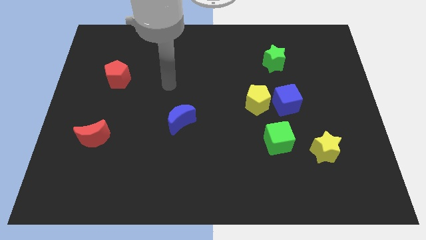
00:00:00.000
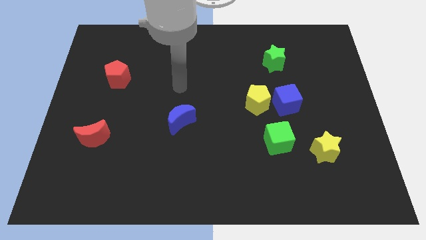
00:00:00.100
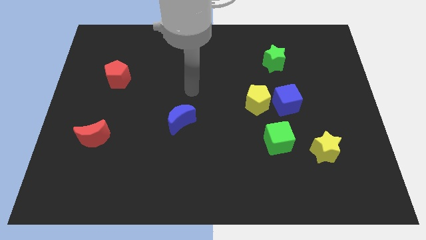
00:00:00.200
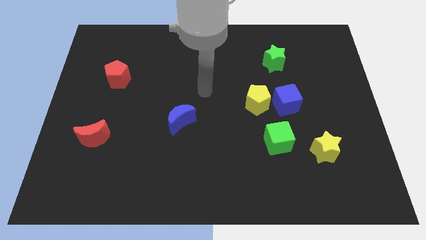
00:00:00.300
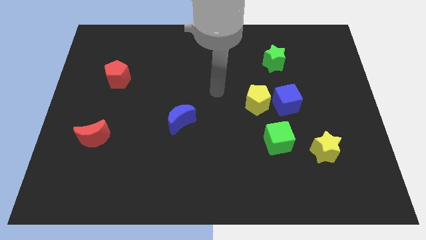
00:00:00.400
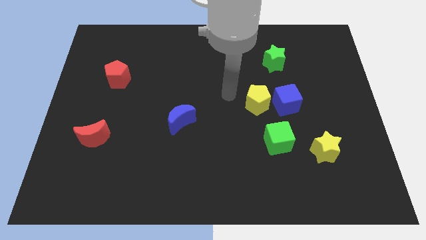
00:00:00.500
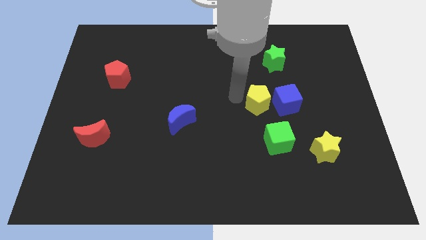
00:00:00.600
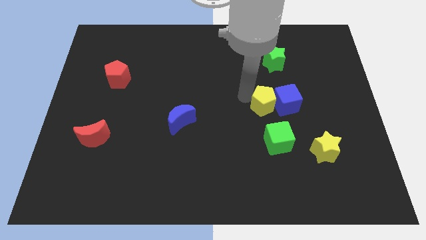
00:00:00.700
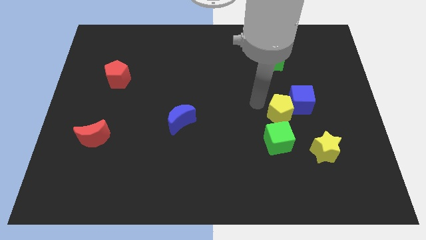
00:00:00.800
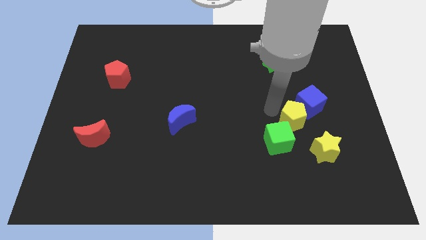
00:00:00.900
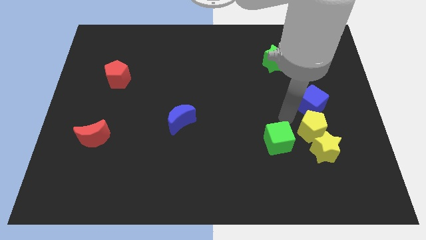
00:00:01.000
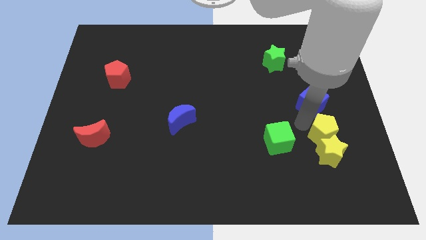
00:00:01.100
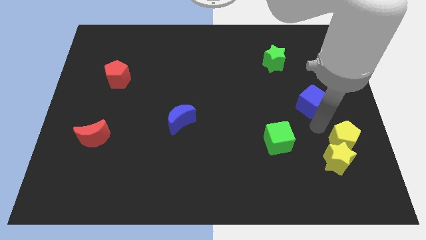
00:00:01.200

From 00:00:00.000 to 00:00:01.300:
separate the blue cube from the yellow pentagon

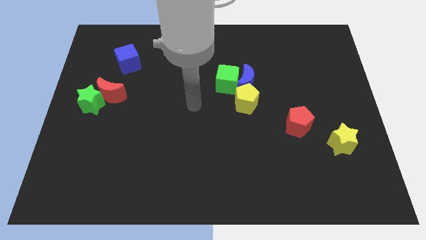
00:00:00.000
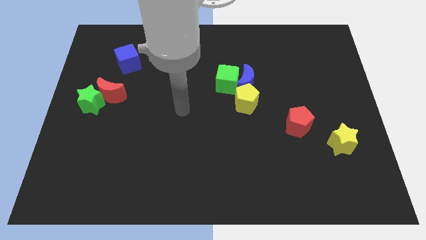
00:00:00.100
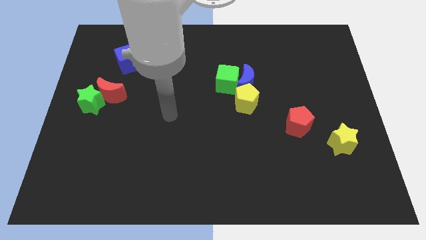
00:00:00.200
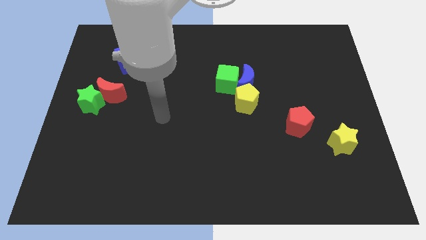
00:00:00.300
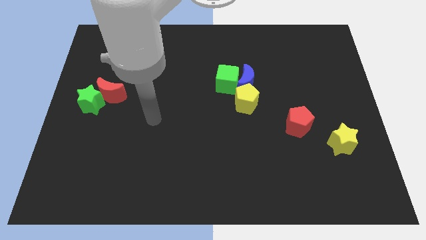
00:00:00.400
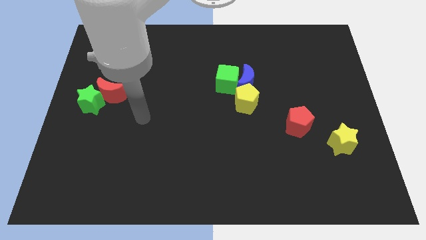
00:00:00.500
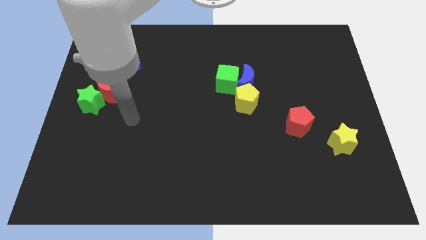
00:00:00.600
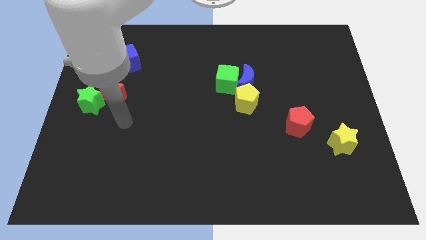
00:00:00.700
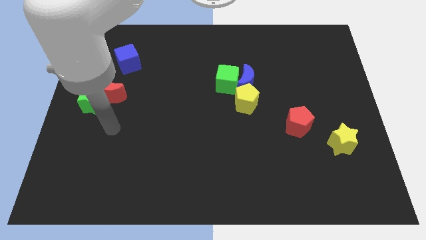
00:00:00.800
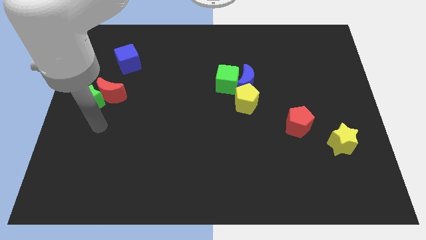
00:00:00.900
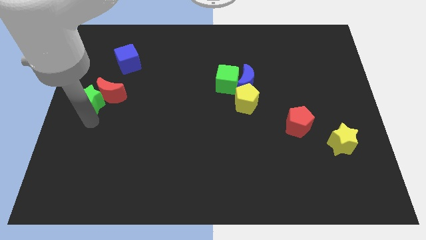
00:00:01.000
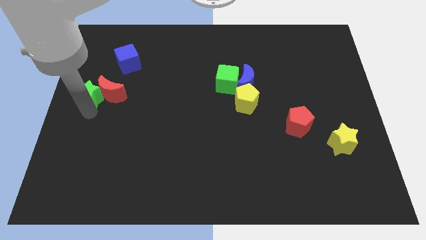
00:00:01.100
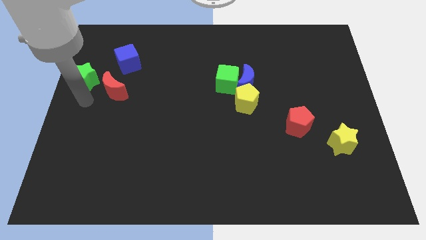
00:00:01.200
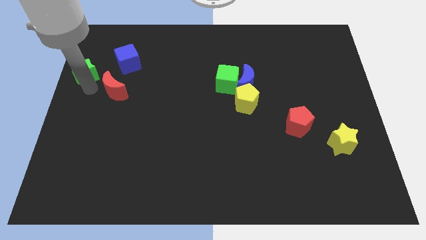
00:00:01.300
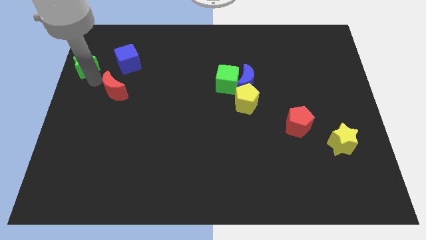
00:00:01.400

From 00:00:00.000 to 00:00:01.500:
separate the red moon from the green star

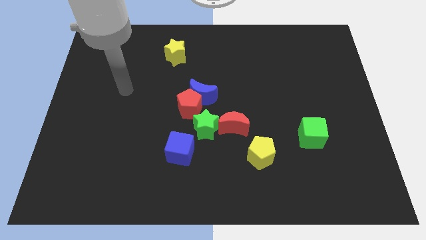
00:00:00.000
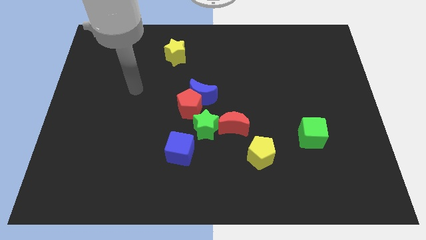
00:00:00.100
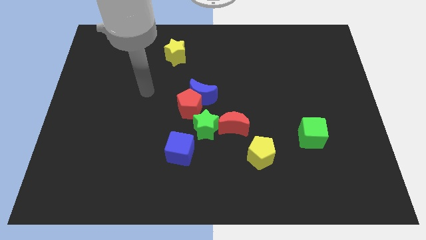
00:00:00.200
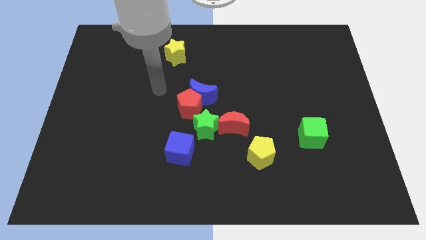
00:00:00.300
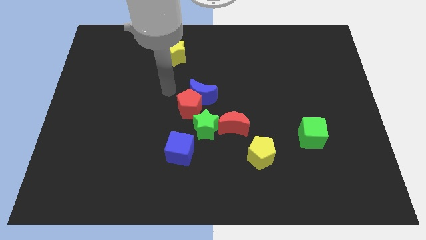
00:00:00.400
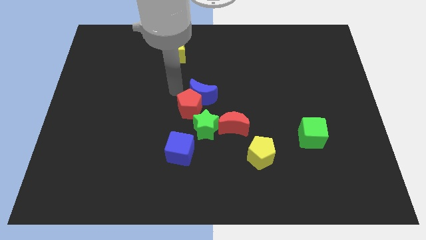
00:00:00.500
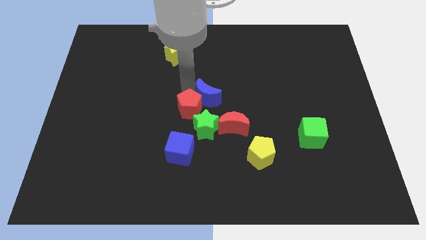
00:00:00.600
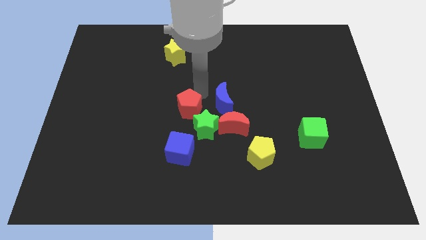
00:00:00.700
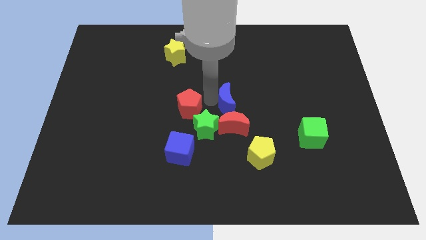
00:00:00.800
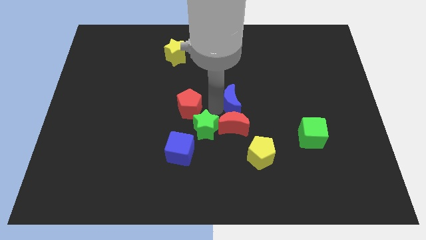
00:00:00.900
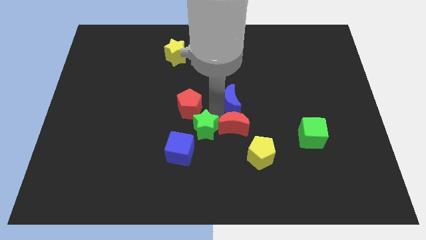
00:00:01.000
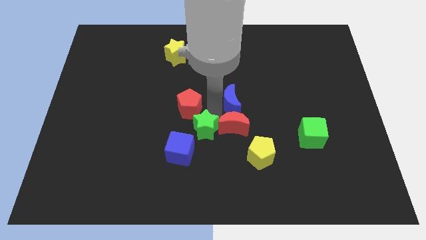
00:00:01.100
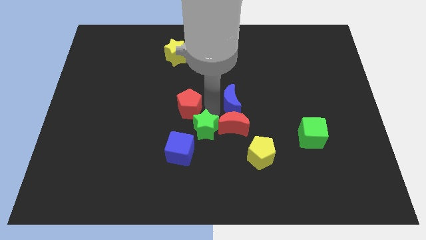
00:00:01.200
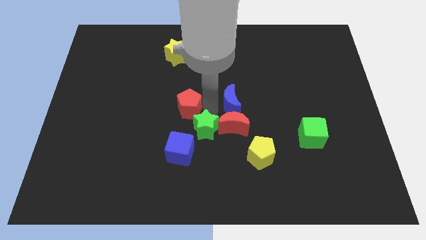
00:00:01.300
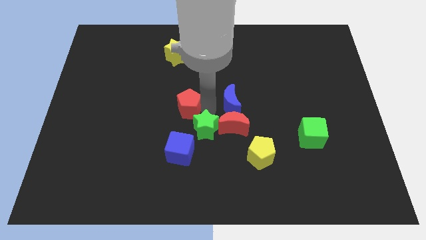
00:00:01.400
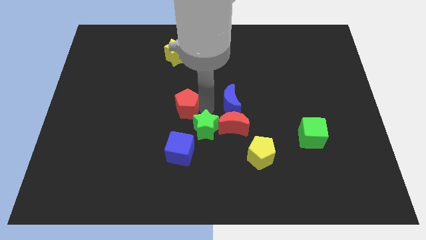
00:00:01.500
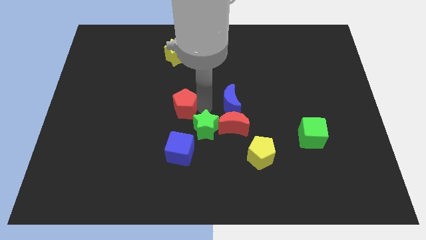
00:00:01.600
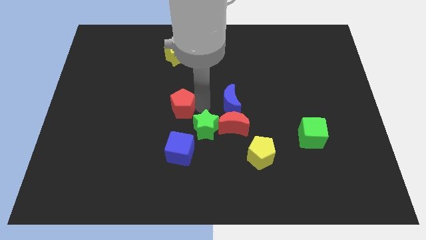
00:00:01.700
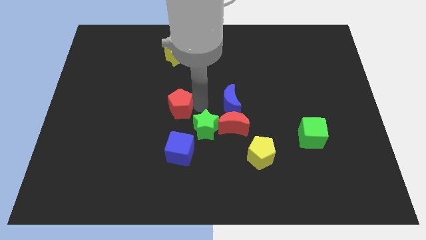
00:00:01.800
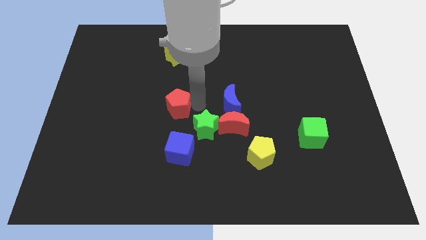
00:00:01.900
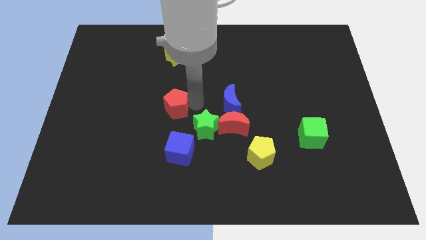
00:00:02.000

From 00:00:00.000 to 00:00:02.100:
separate the red pentagon from the blue moon and green star

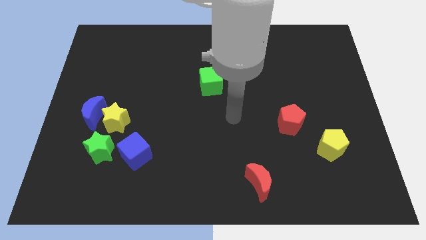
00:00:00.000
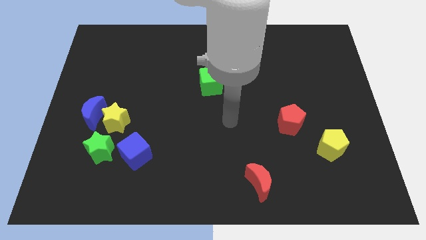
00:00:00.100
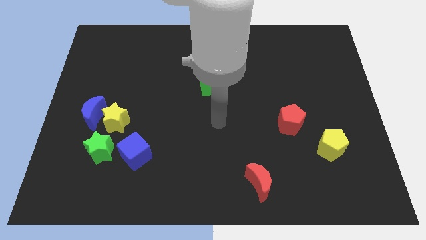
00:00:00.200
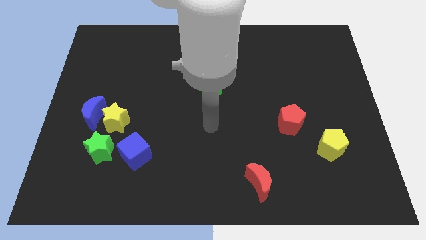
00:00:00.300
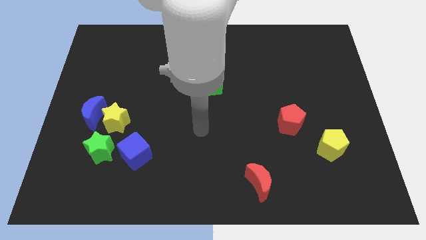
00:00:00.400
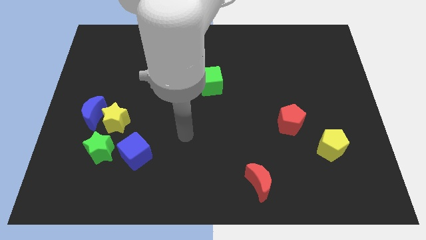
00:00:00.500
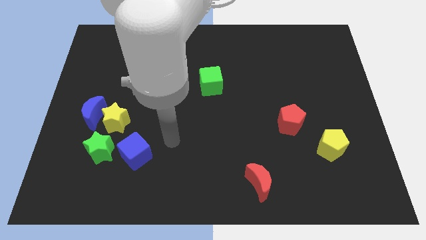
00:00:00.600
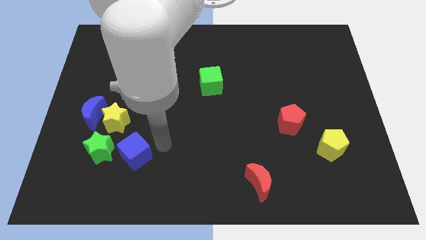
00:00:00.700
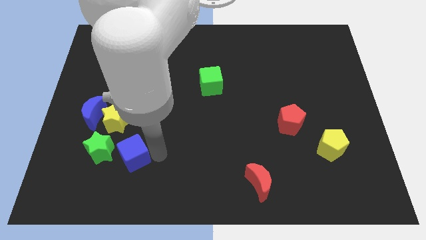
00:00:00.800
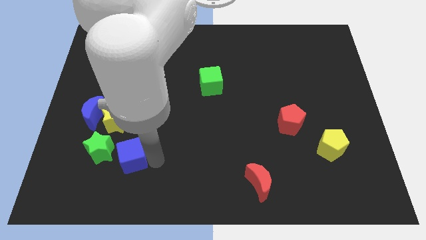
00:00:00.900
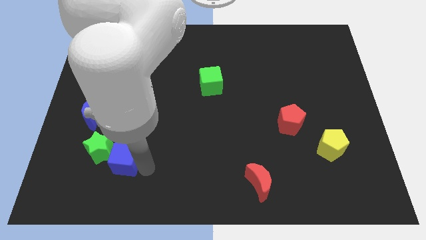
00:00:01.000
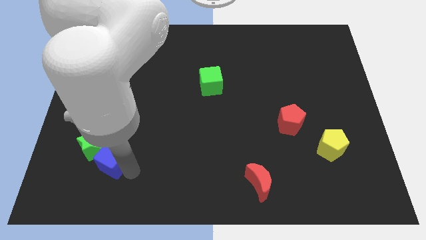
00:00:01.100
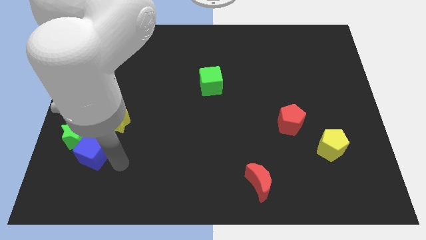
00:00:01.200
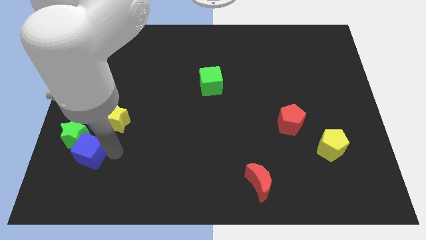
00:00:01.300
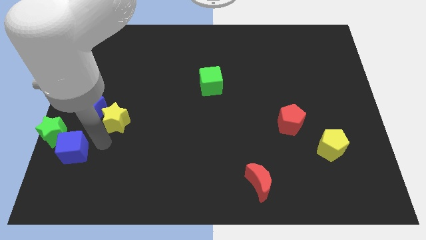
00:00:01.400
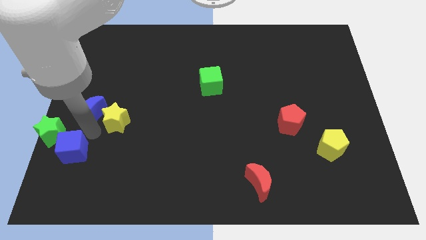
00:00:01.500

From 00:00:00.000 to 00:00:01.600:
move the yellow star away from the blue moon, green star, and blue cube

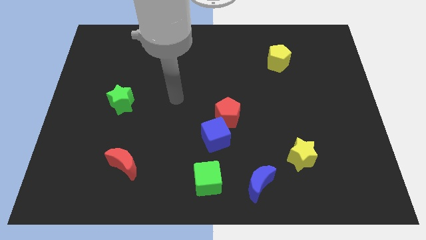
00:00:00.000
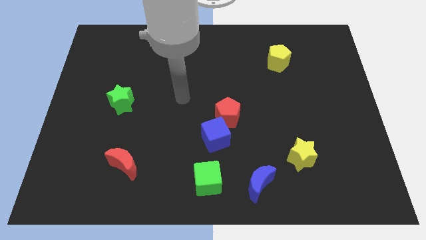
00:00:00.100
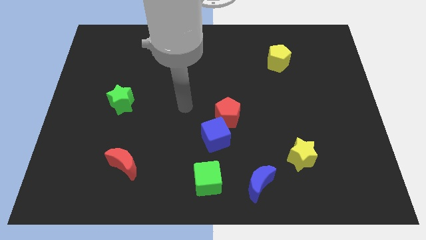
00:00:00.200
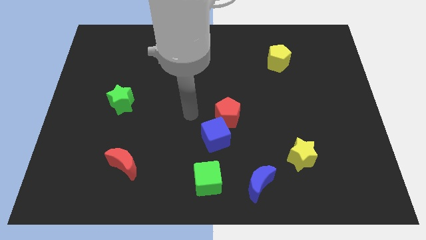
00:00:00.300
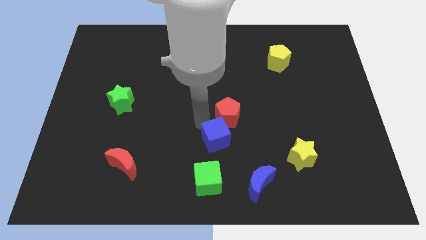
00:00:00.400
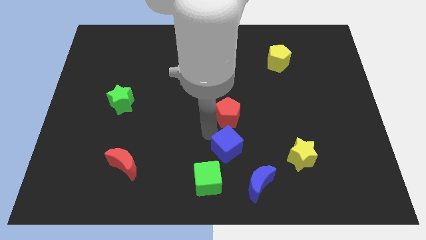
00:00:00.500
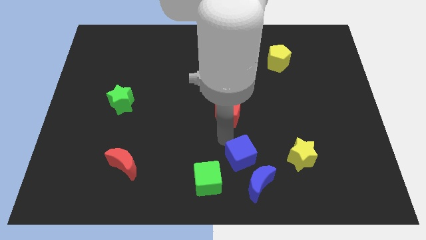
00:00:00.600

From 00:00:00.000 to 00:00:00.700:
move the red pentagon away from the blue cube

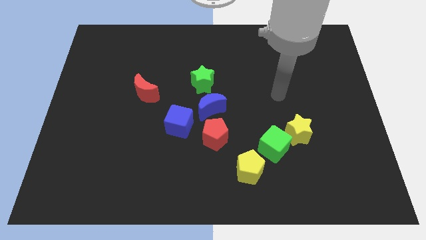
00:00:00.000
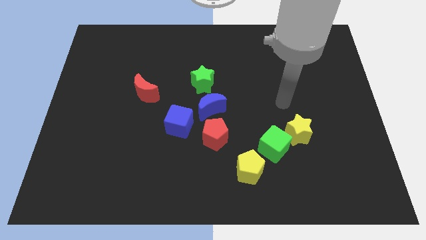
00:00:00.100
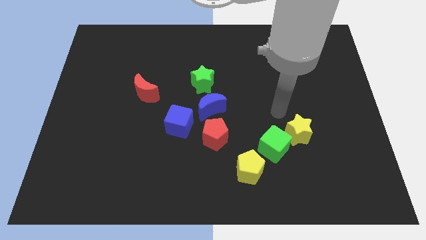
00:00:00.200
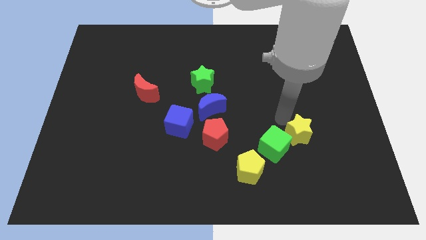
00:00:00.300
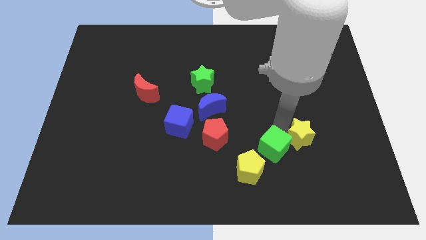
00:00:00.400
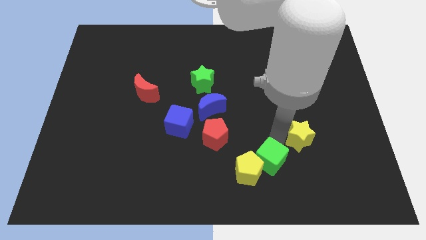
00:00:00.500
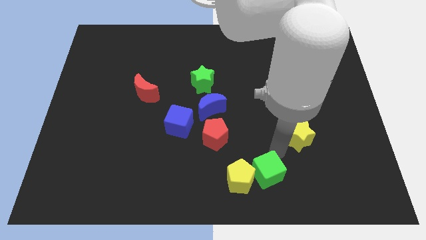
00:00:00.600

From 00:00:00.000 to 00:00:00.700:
pull the yellow star apart from the green cube

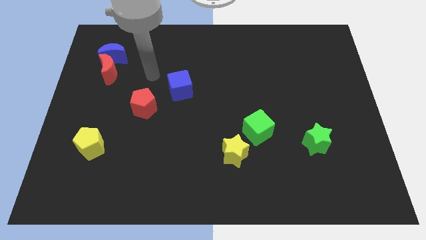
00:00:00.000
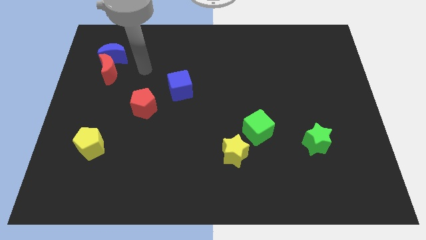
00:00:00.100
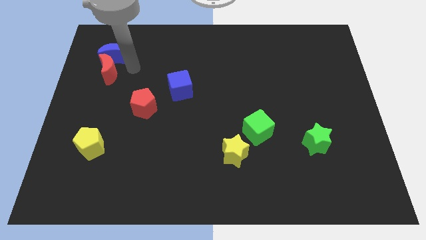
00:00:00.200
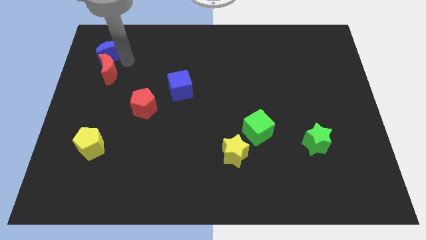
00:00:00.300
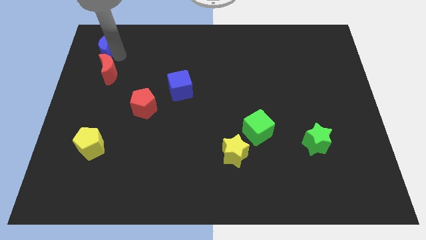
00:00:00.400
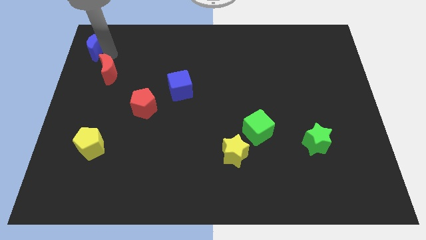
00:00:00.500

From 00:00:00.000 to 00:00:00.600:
separate the red moon from the blue moon

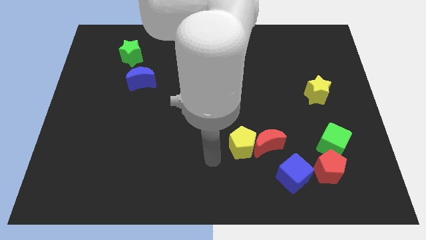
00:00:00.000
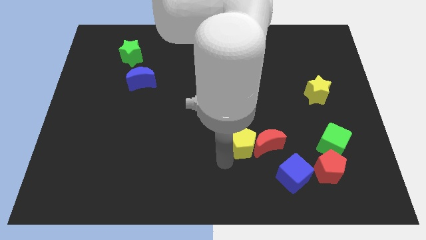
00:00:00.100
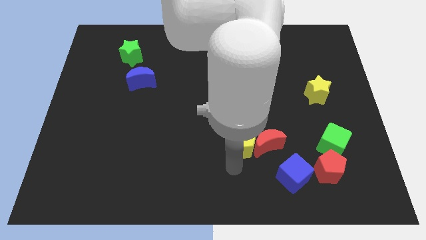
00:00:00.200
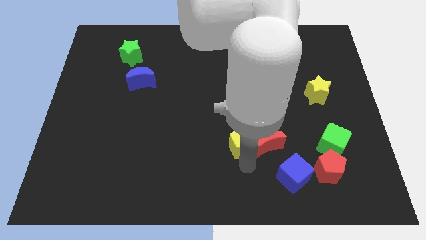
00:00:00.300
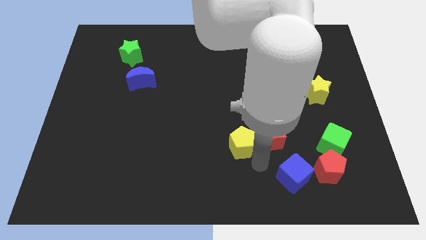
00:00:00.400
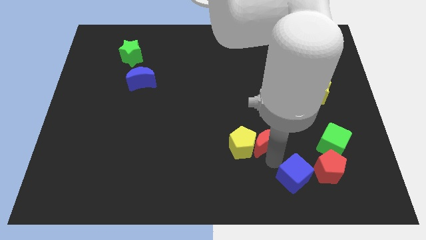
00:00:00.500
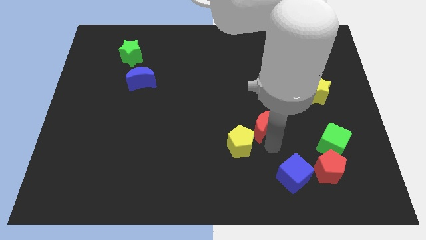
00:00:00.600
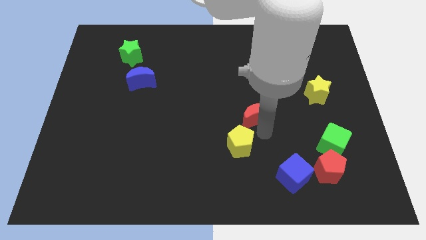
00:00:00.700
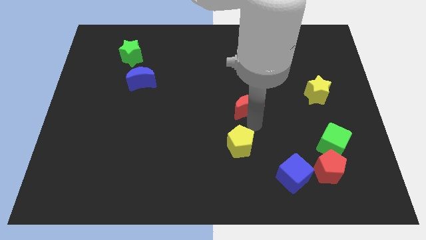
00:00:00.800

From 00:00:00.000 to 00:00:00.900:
move the yellow pentagon away from the red moon
